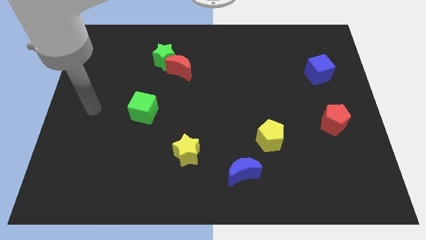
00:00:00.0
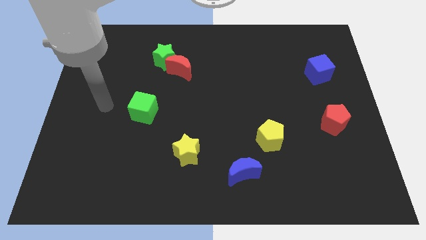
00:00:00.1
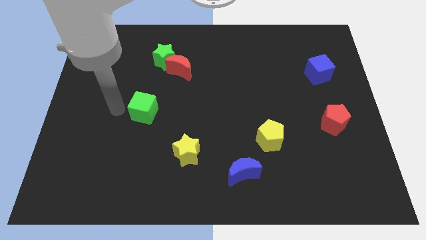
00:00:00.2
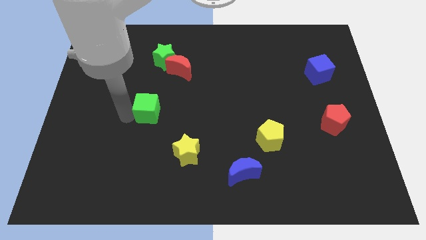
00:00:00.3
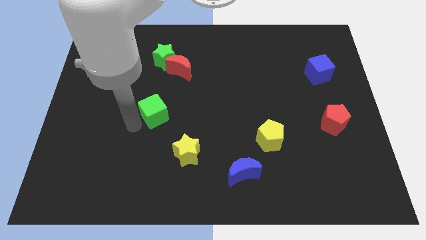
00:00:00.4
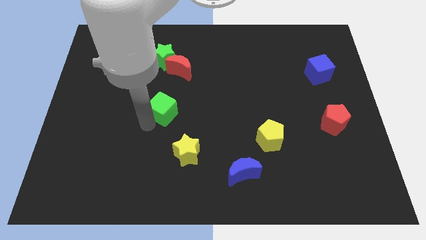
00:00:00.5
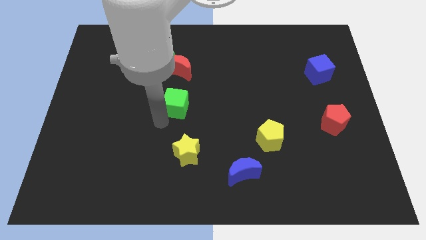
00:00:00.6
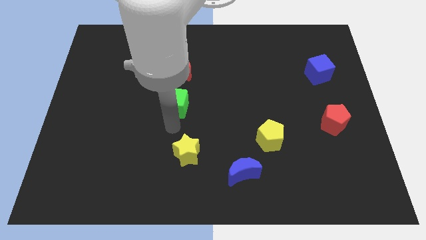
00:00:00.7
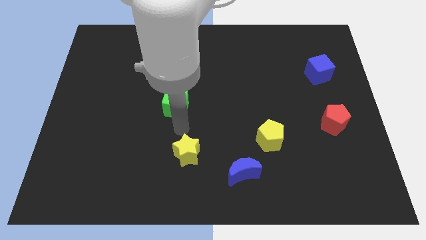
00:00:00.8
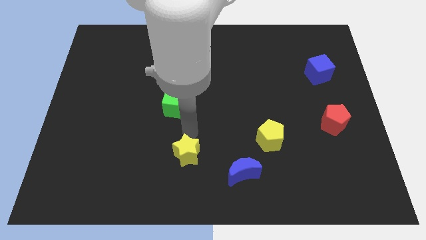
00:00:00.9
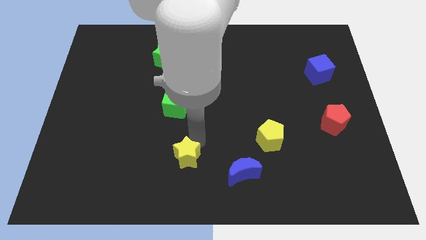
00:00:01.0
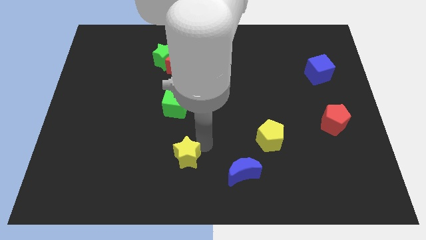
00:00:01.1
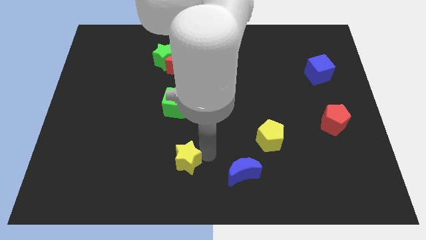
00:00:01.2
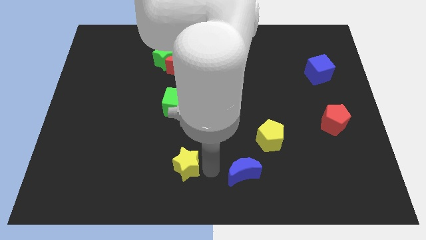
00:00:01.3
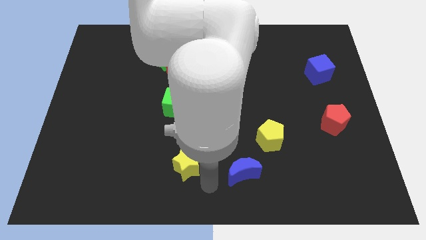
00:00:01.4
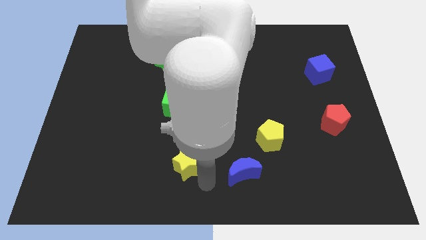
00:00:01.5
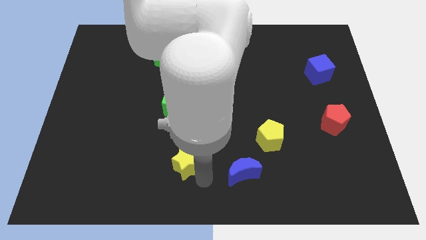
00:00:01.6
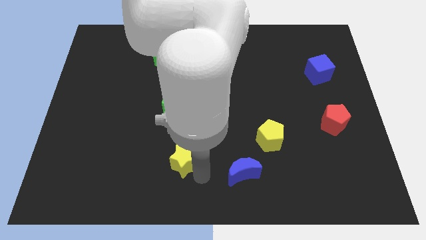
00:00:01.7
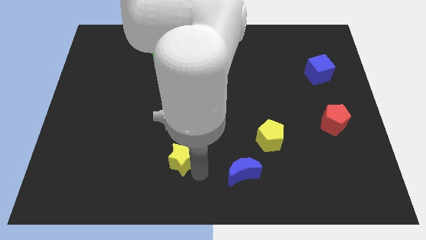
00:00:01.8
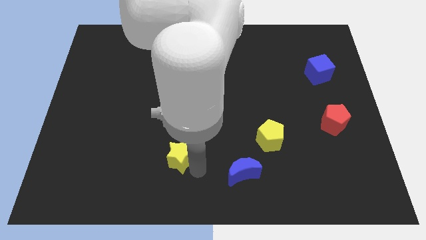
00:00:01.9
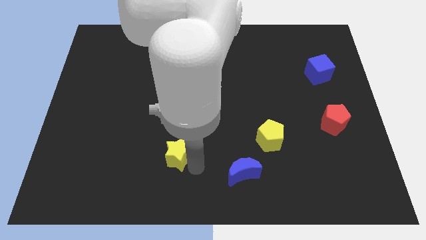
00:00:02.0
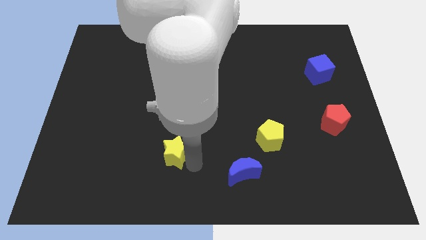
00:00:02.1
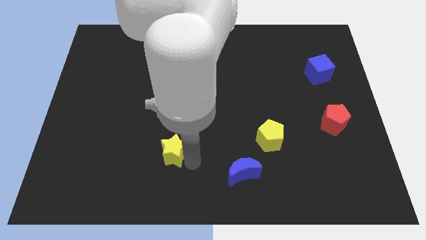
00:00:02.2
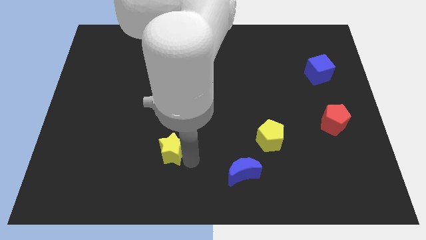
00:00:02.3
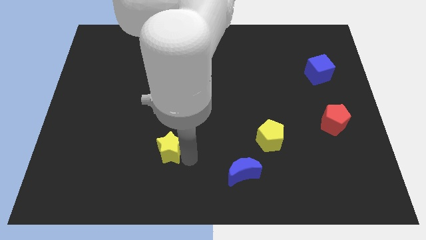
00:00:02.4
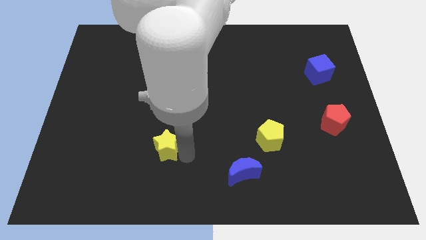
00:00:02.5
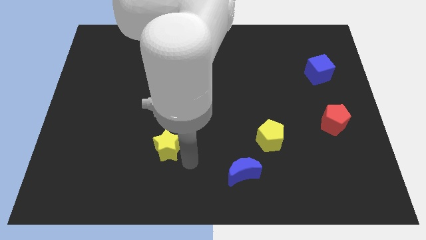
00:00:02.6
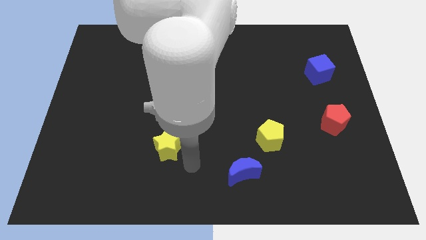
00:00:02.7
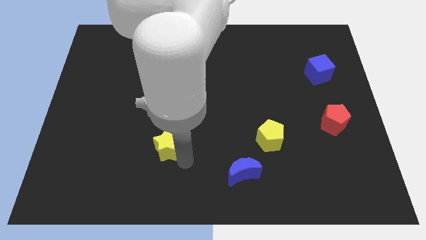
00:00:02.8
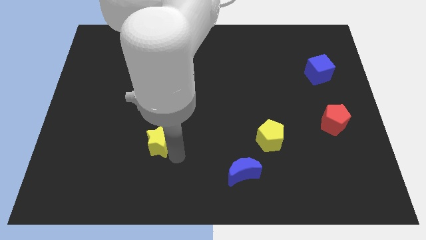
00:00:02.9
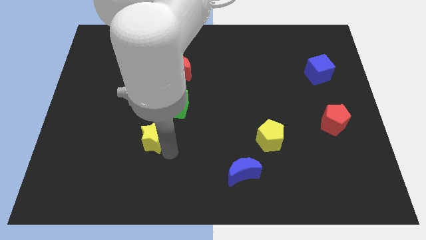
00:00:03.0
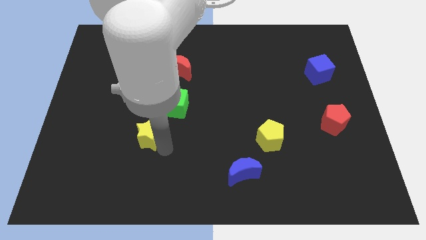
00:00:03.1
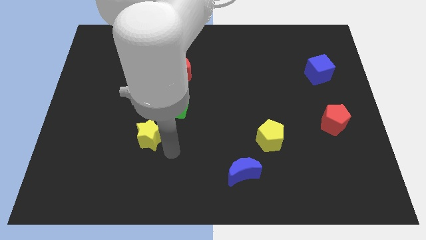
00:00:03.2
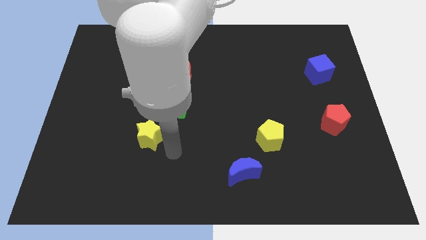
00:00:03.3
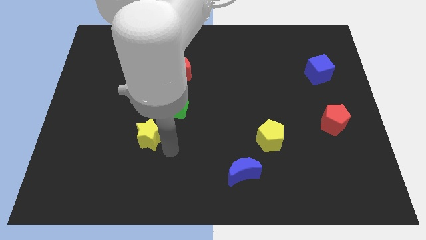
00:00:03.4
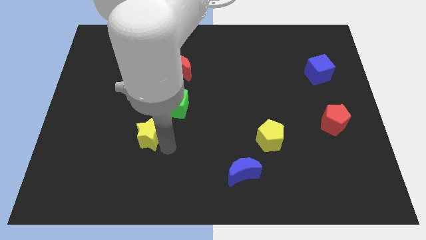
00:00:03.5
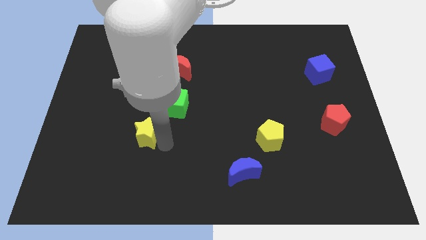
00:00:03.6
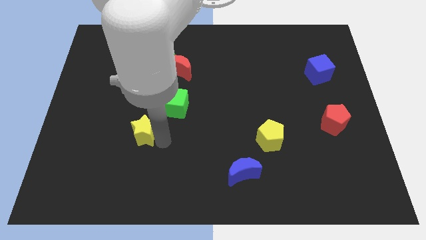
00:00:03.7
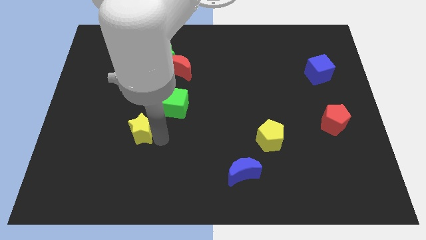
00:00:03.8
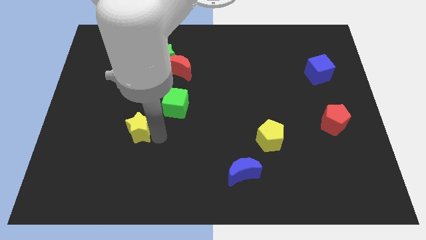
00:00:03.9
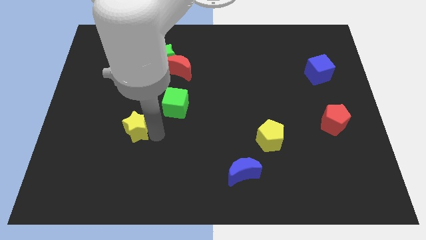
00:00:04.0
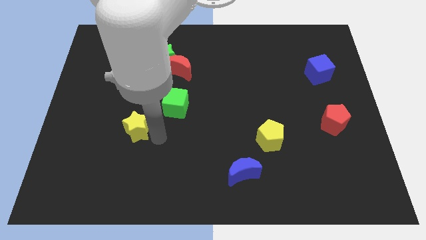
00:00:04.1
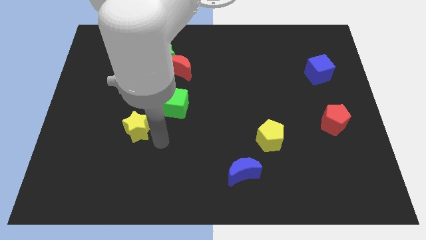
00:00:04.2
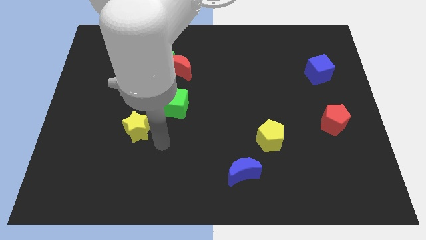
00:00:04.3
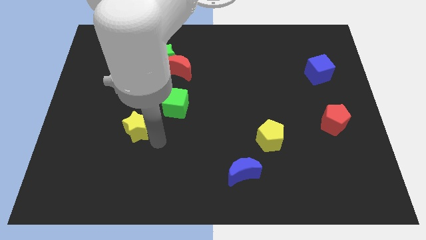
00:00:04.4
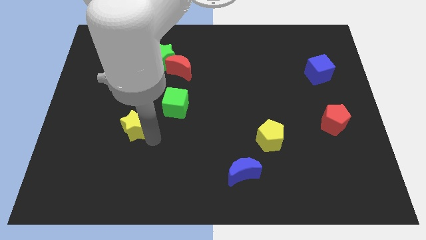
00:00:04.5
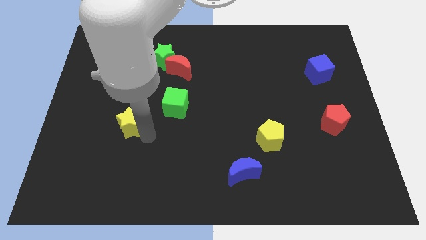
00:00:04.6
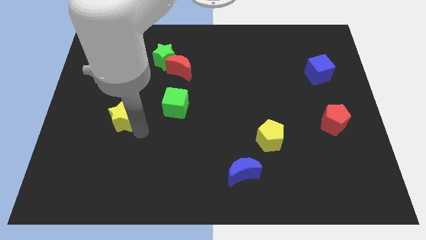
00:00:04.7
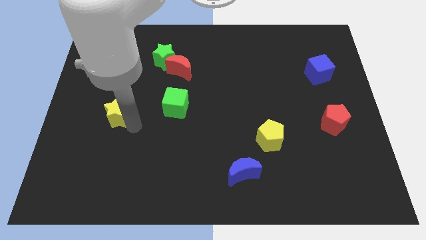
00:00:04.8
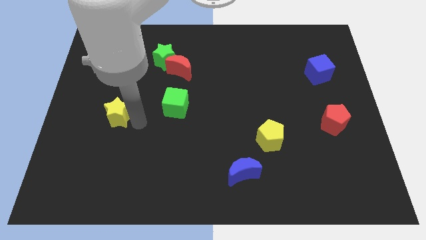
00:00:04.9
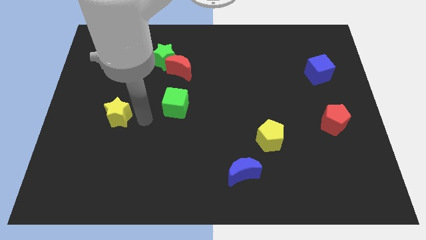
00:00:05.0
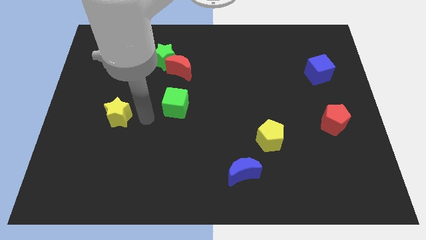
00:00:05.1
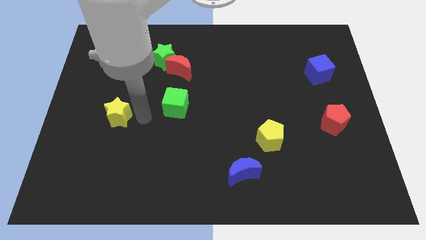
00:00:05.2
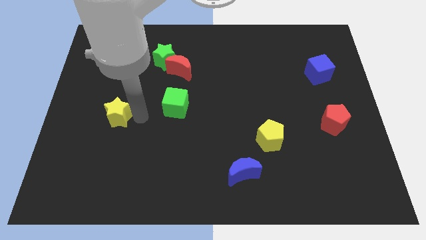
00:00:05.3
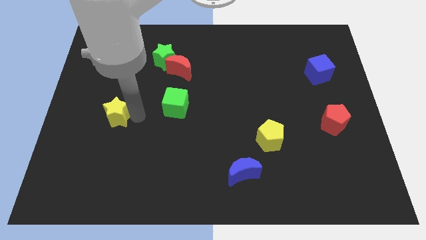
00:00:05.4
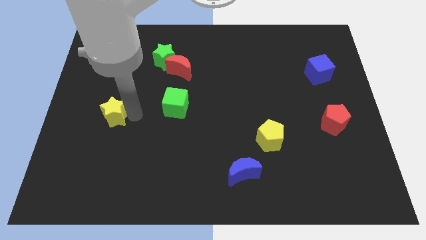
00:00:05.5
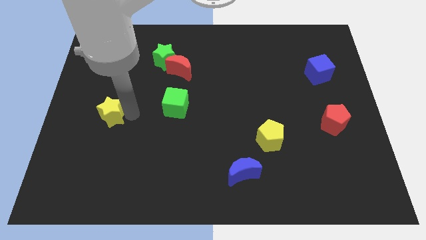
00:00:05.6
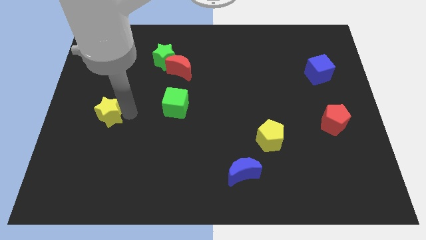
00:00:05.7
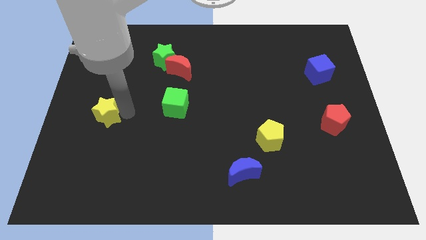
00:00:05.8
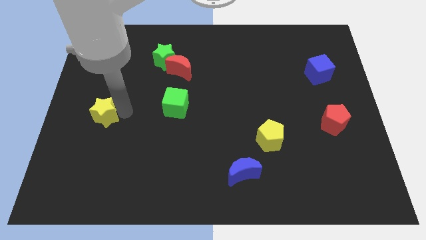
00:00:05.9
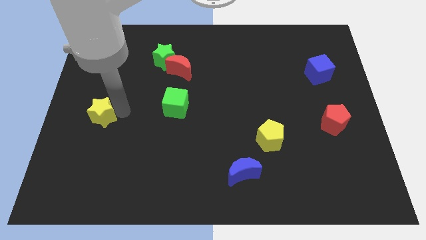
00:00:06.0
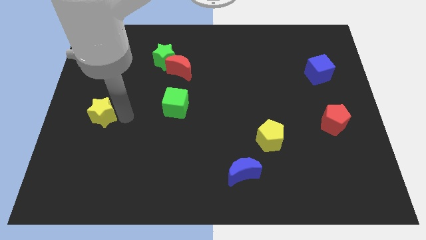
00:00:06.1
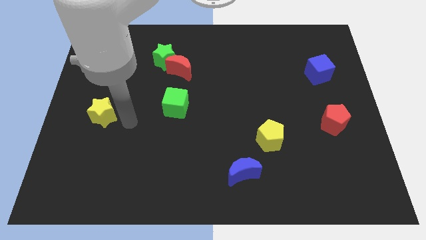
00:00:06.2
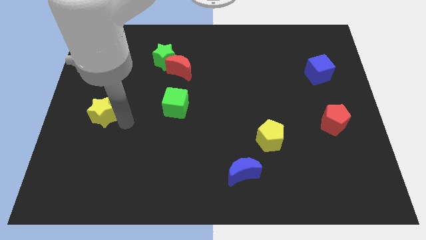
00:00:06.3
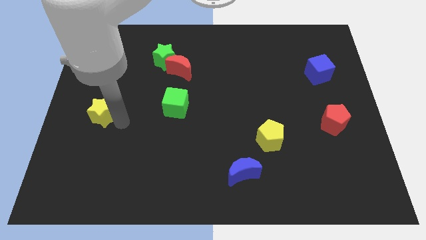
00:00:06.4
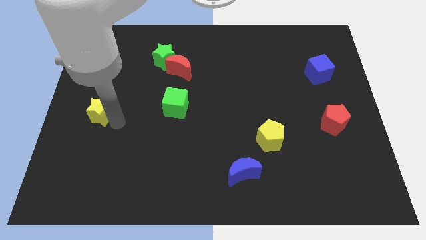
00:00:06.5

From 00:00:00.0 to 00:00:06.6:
slide the yellow star to the center left
